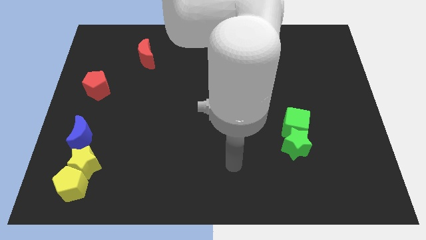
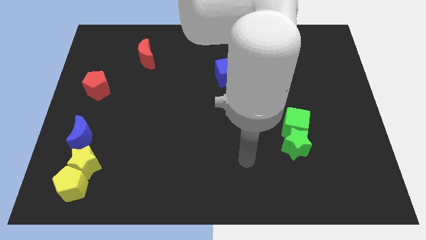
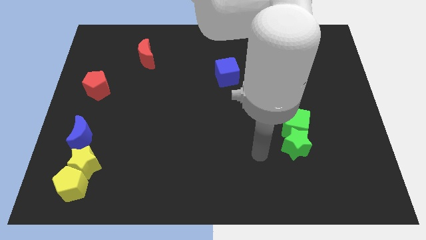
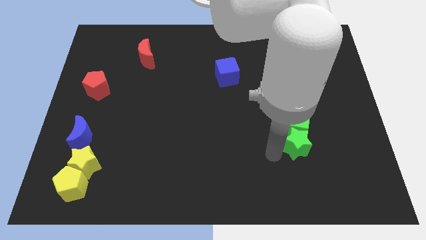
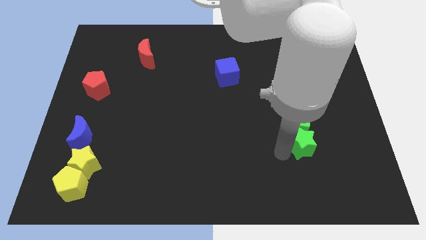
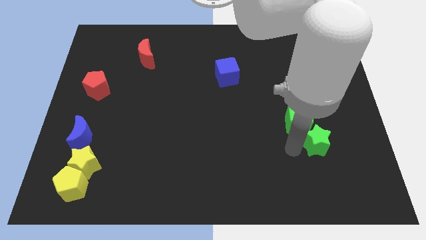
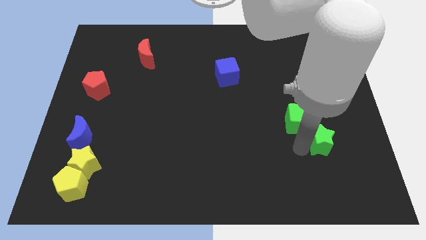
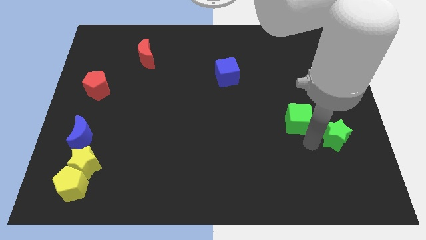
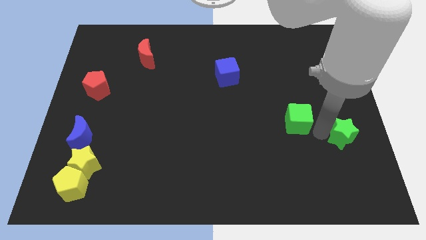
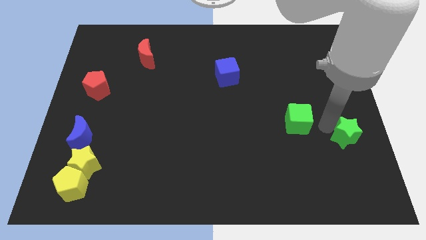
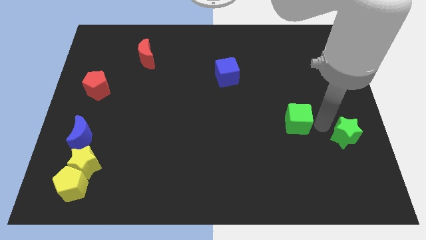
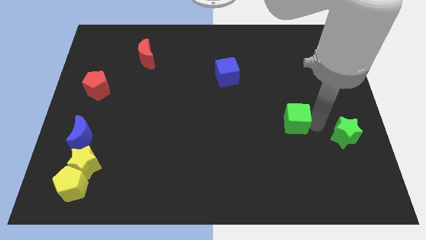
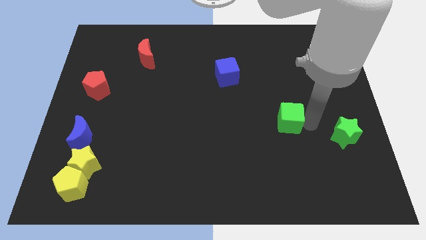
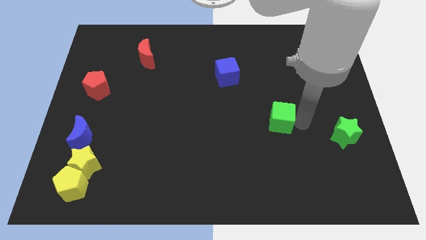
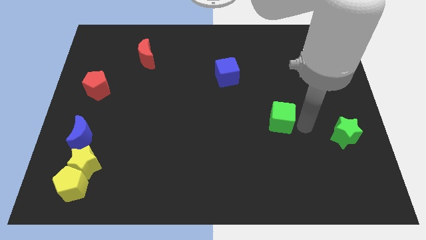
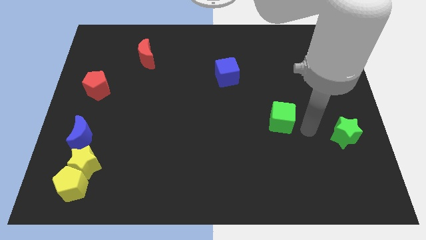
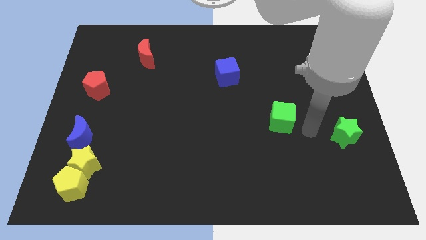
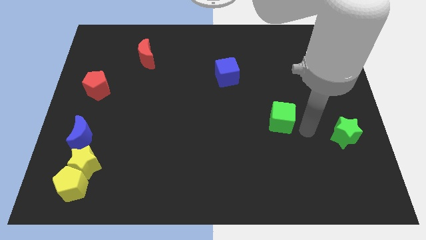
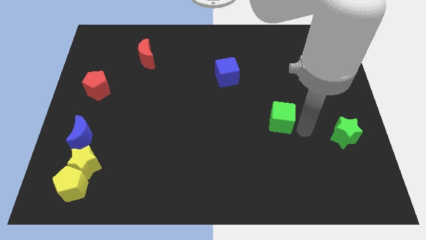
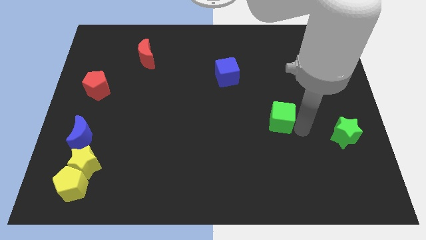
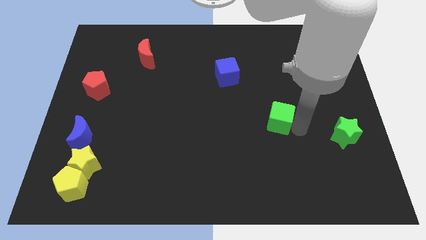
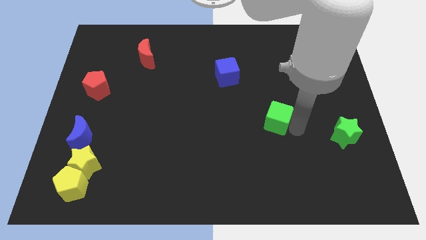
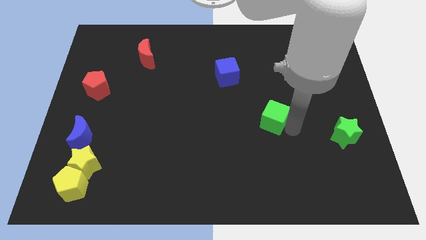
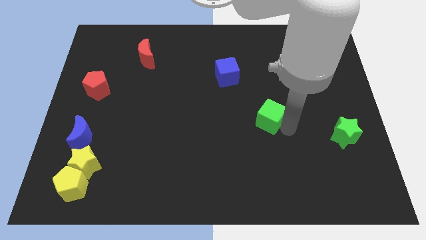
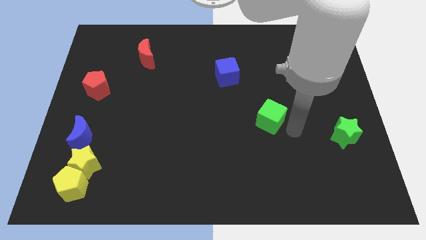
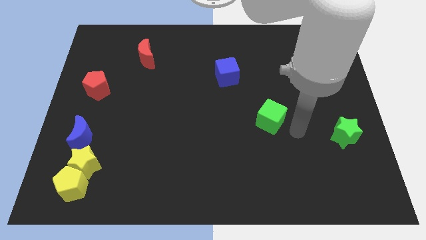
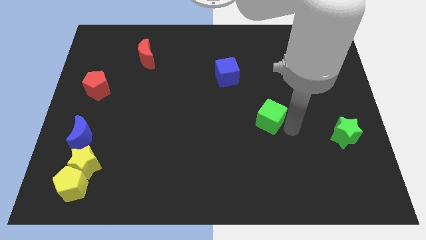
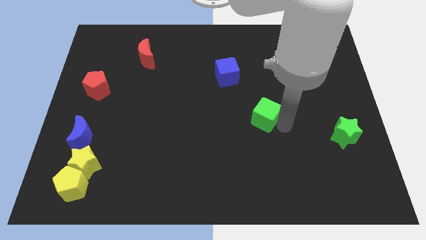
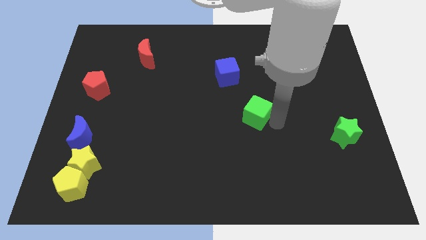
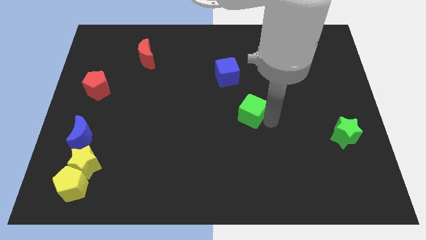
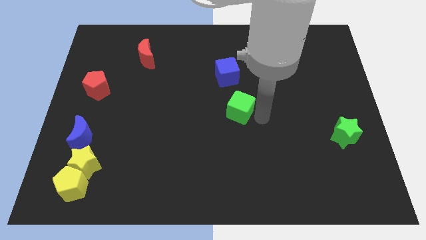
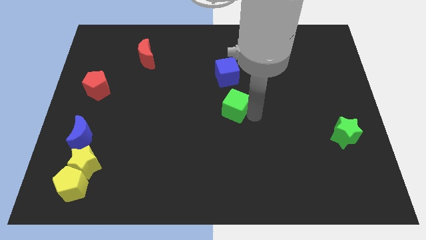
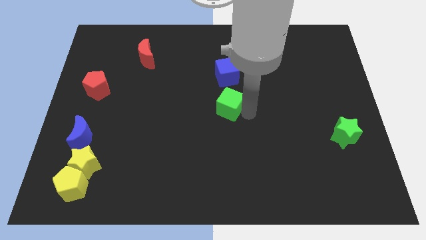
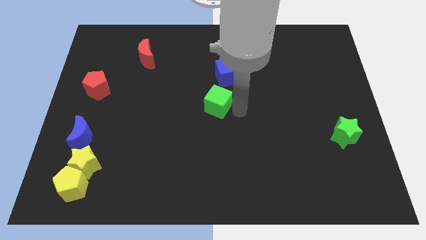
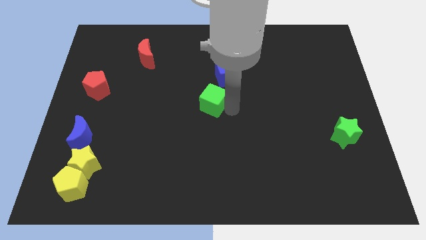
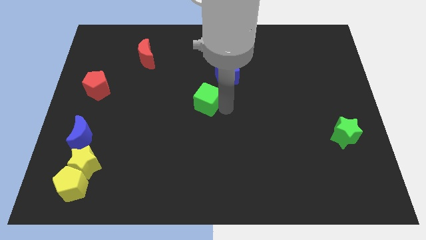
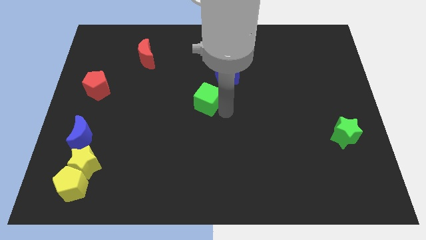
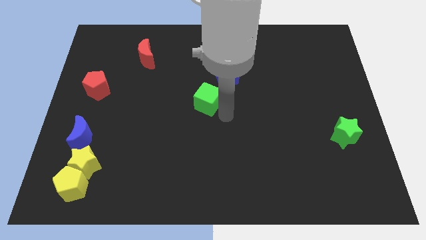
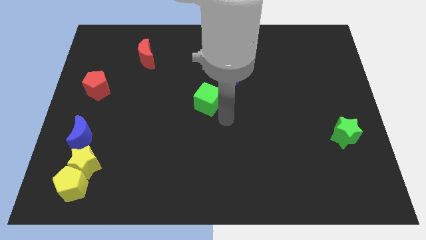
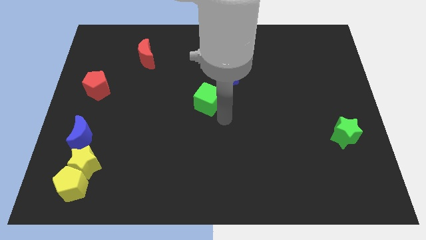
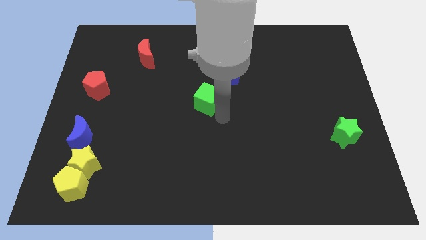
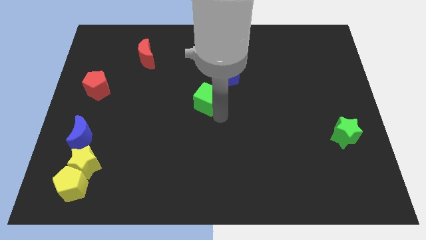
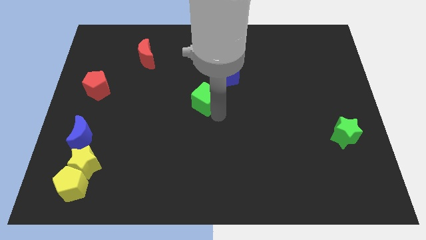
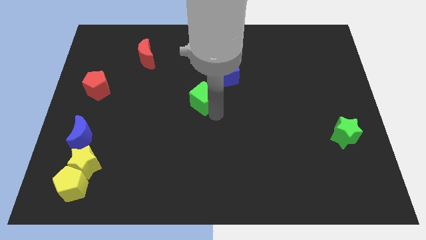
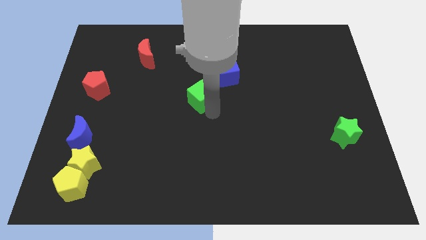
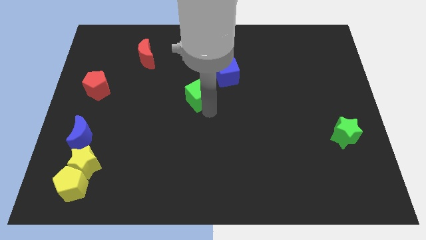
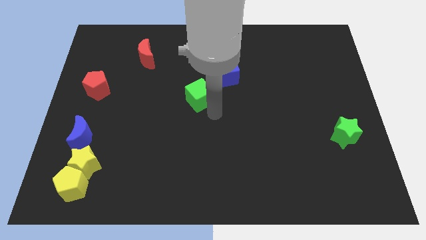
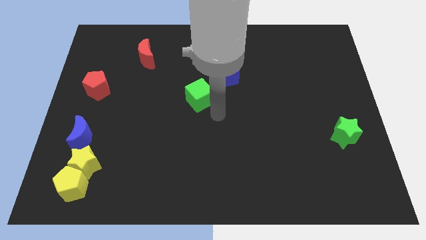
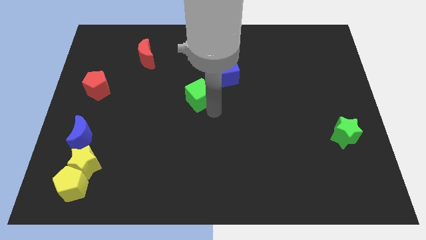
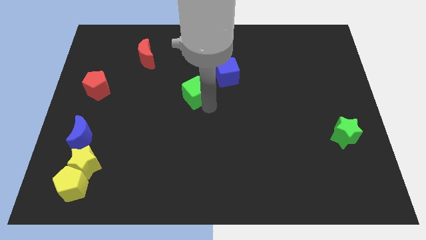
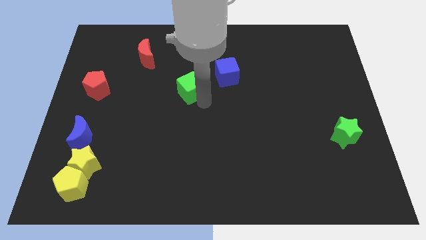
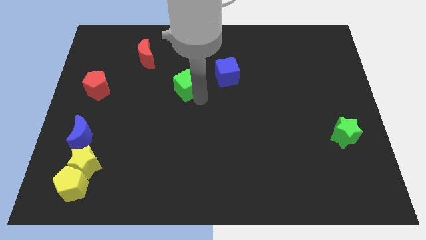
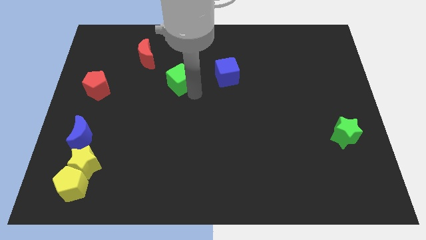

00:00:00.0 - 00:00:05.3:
slide the green cube diagonally down and to the right of the red moon

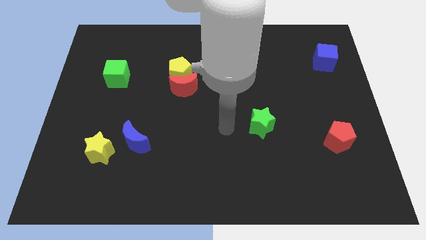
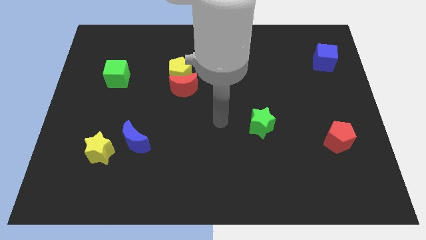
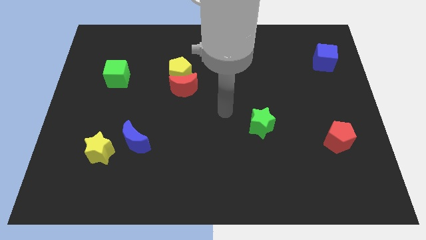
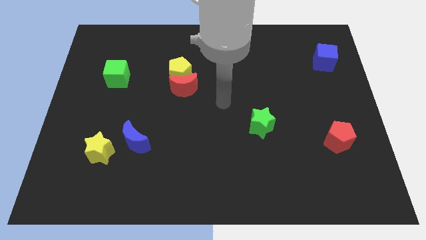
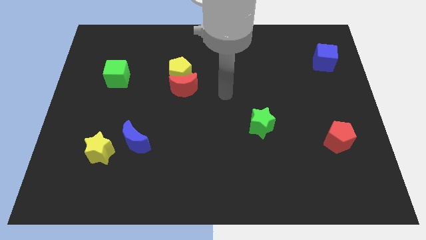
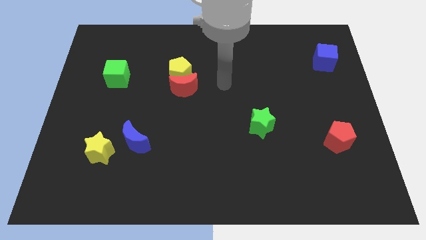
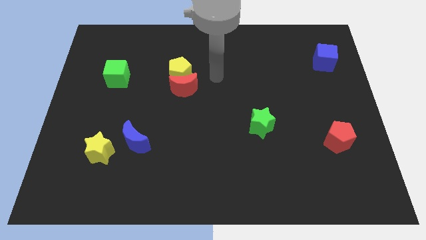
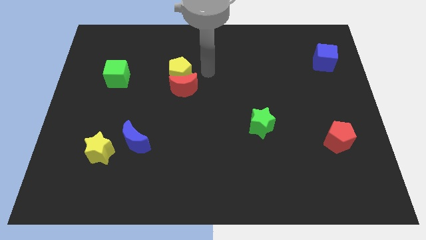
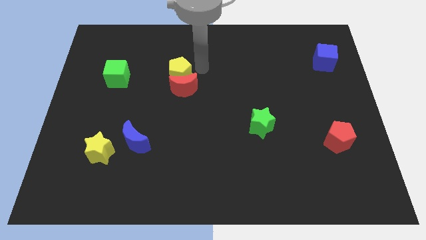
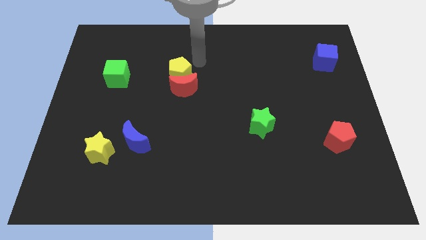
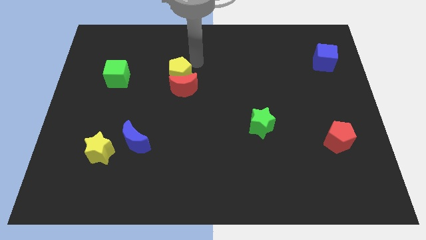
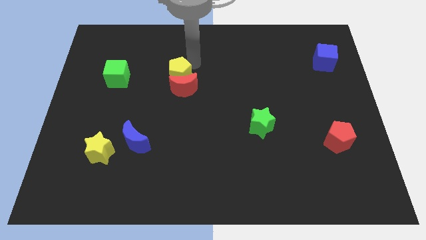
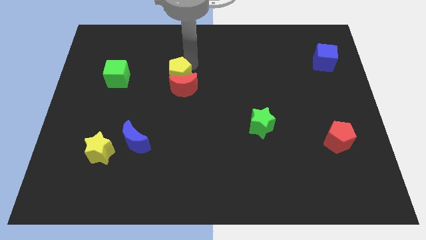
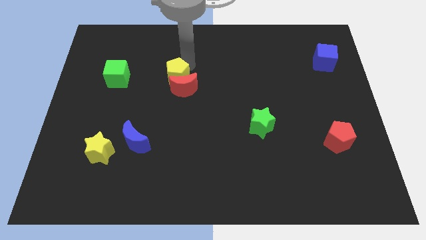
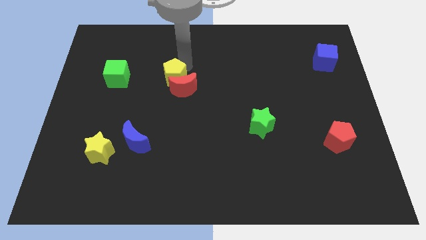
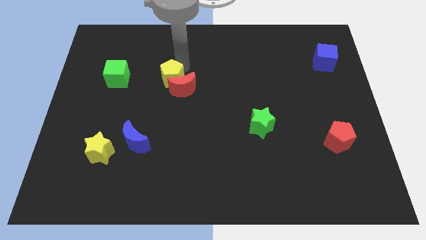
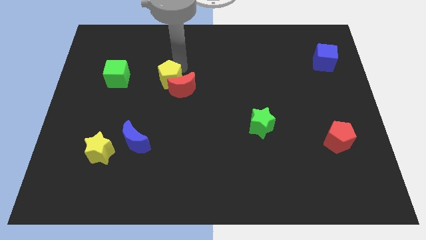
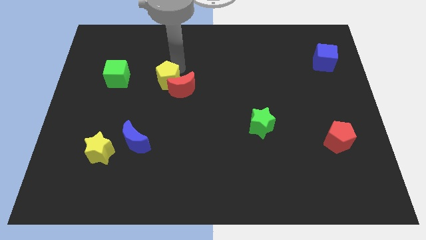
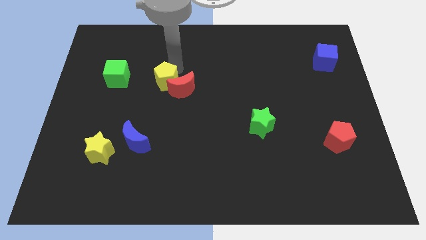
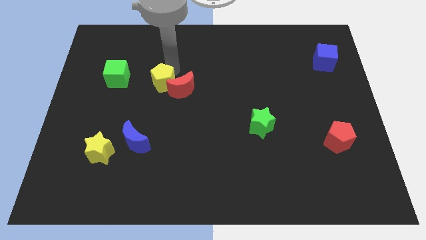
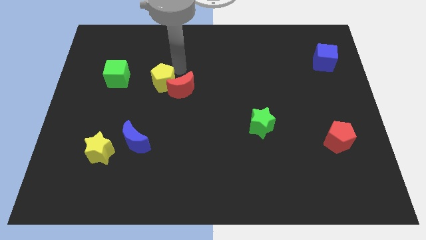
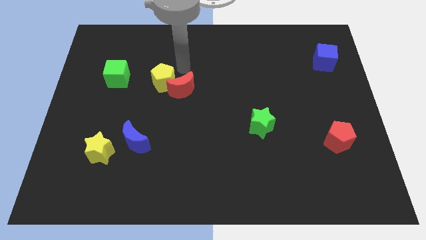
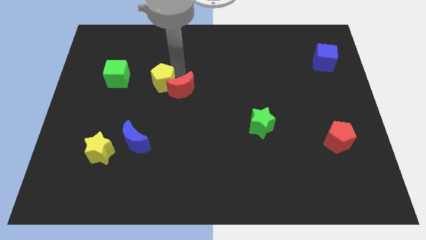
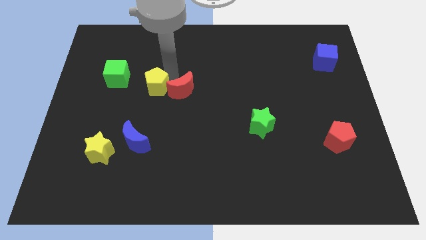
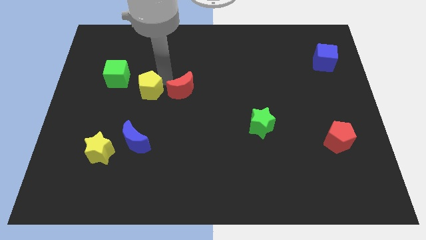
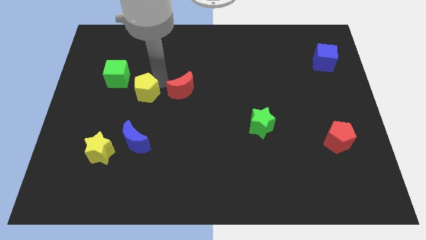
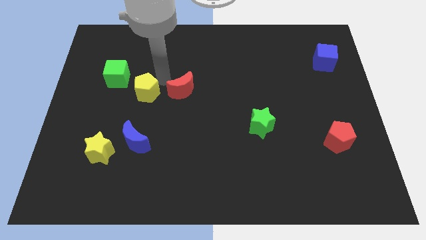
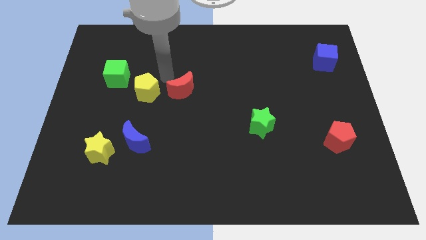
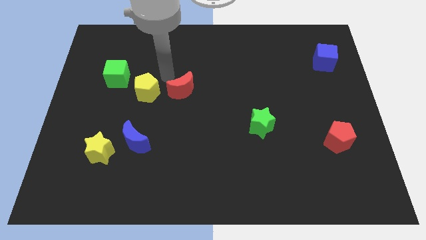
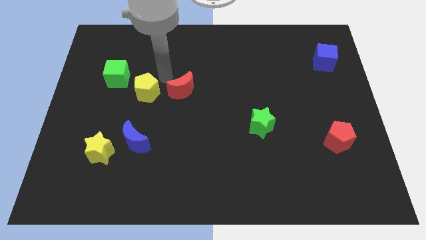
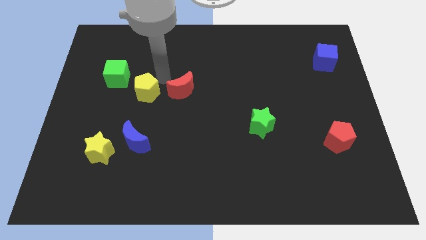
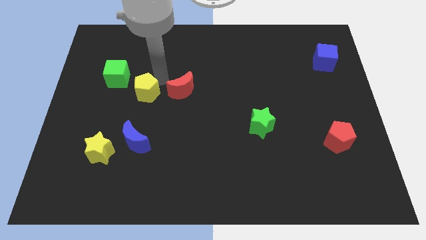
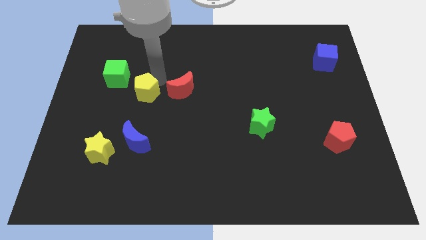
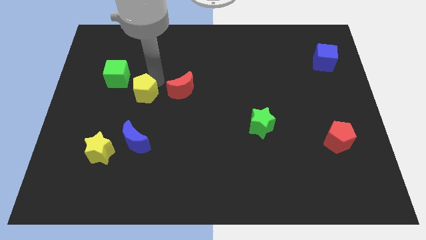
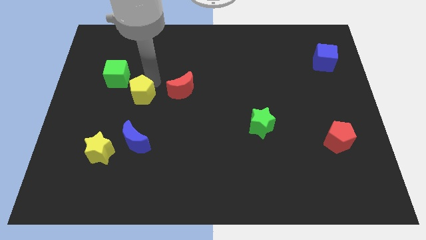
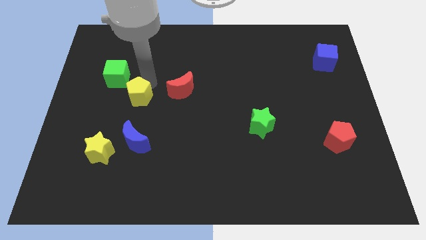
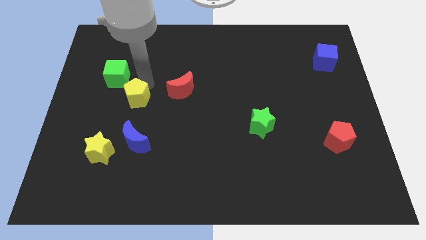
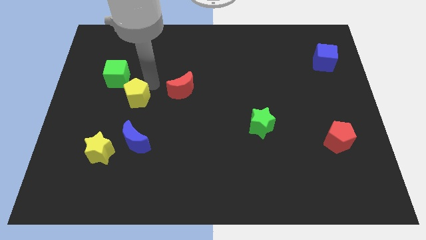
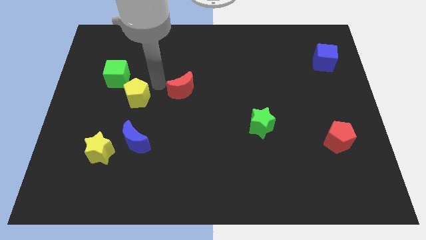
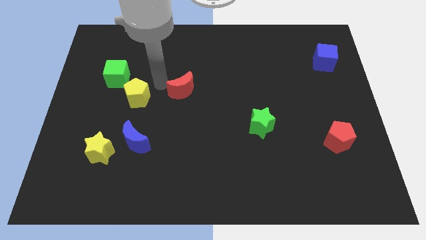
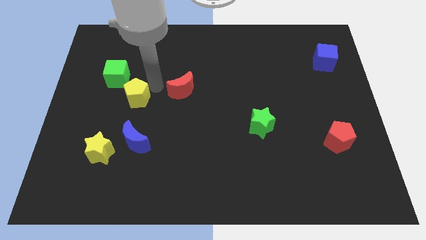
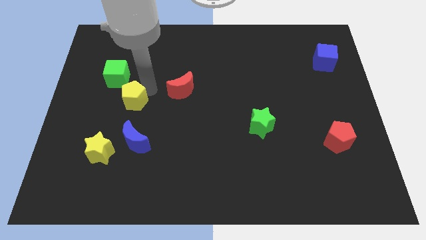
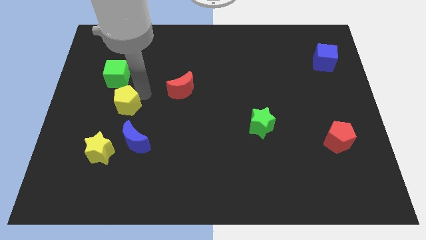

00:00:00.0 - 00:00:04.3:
slide the yellow pentagon below the green cube
